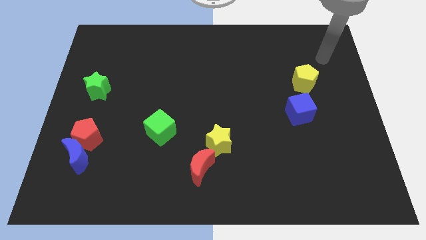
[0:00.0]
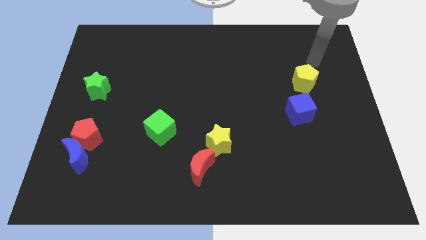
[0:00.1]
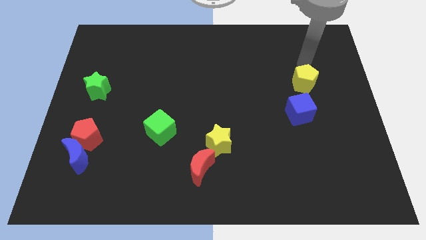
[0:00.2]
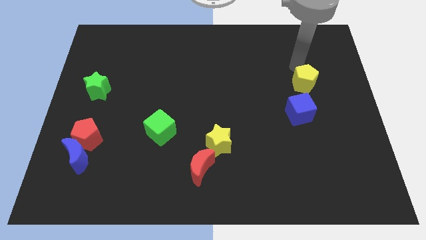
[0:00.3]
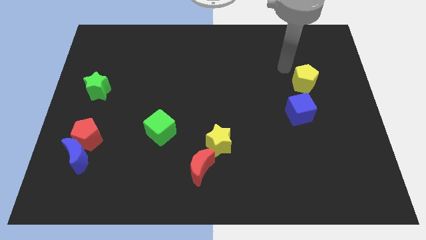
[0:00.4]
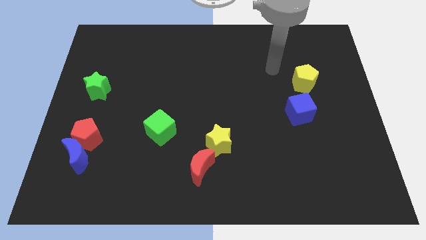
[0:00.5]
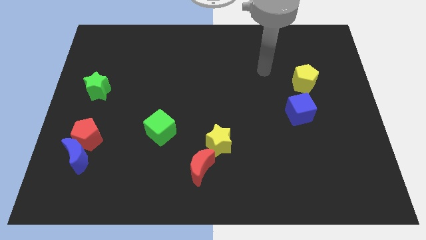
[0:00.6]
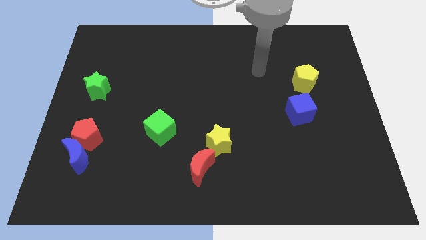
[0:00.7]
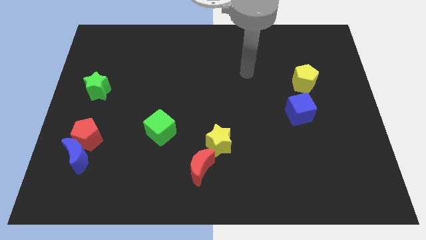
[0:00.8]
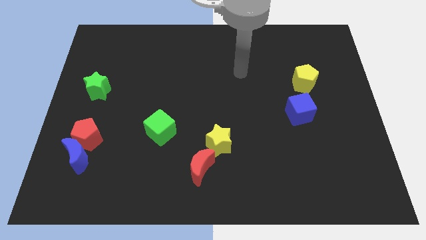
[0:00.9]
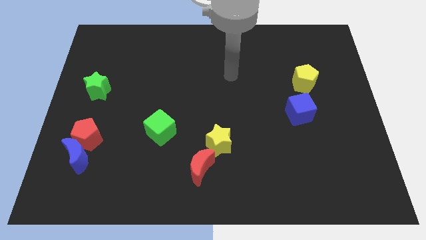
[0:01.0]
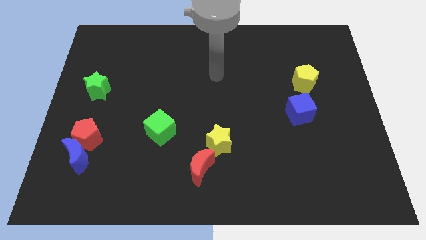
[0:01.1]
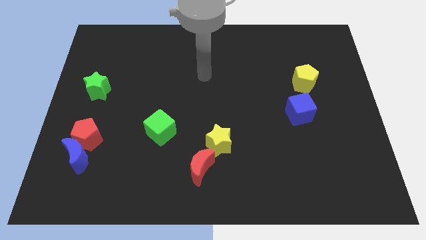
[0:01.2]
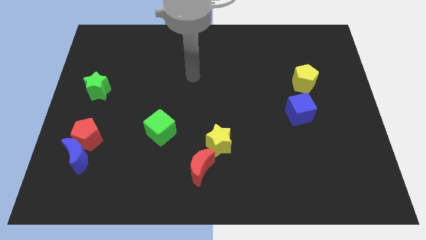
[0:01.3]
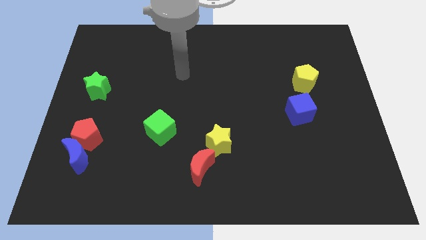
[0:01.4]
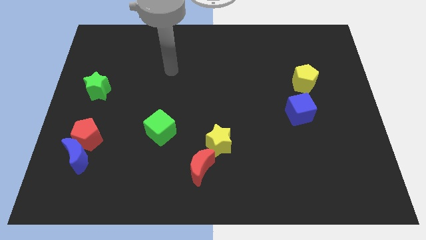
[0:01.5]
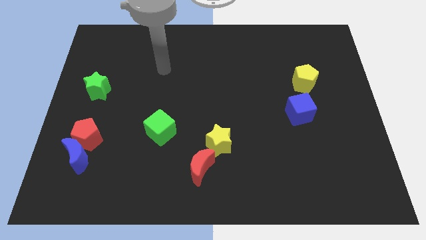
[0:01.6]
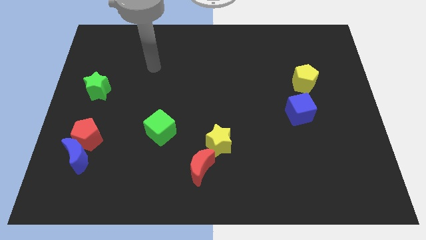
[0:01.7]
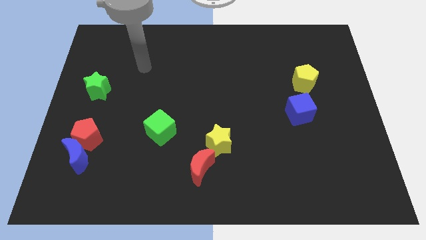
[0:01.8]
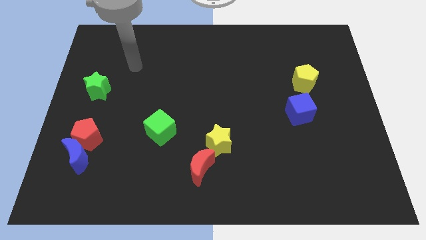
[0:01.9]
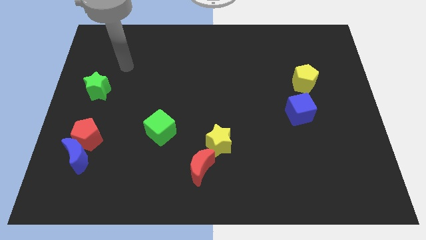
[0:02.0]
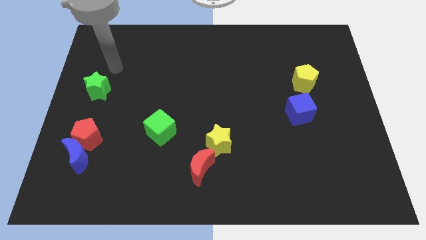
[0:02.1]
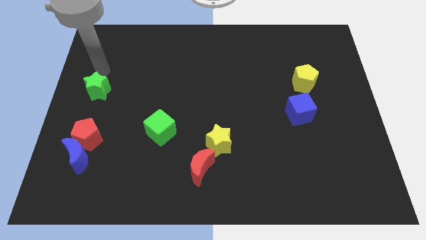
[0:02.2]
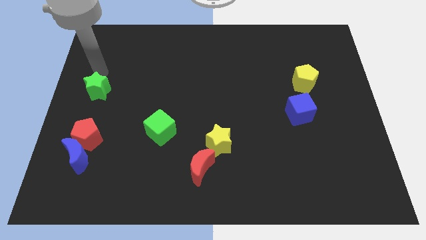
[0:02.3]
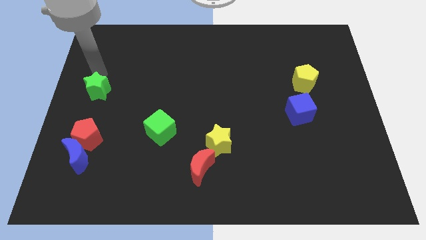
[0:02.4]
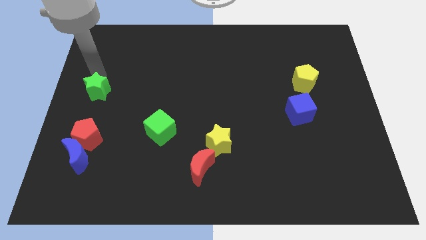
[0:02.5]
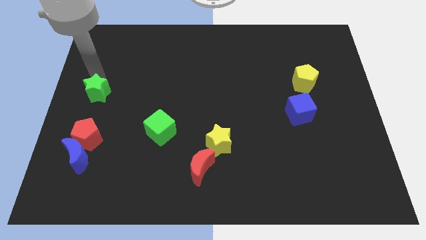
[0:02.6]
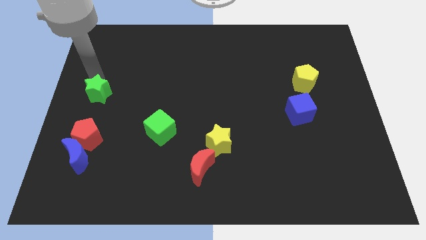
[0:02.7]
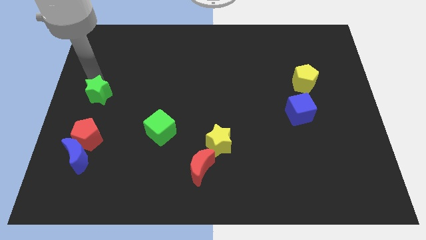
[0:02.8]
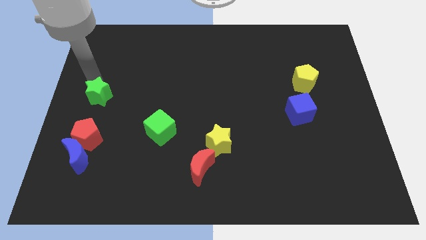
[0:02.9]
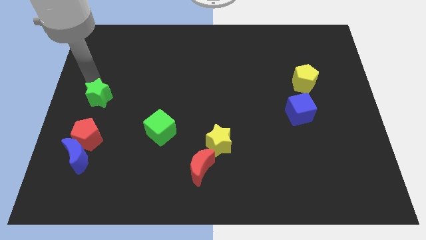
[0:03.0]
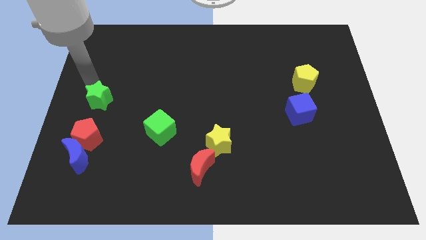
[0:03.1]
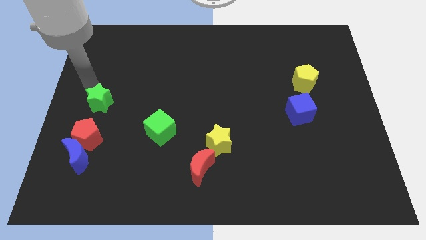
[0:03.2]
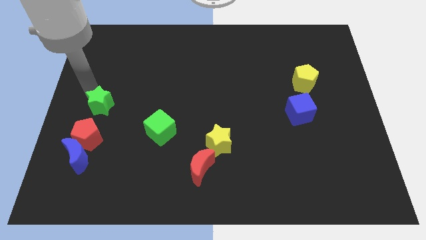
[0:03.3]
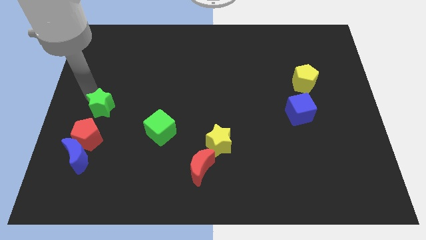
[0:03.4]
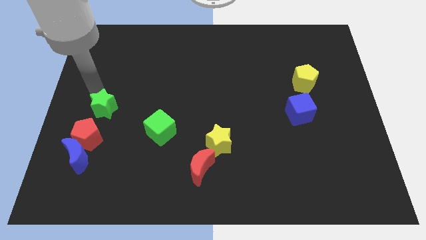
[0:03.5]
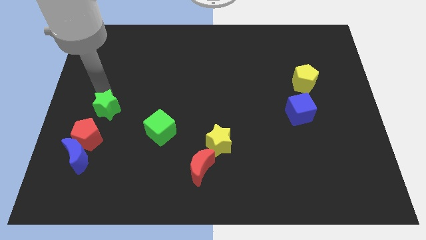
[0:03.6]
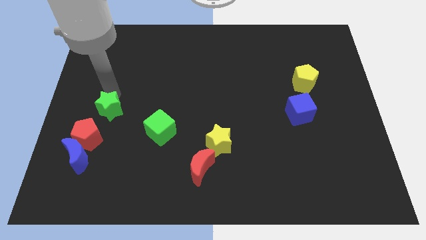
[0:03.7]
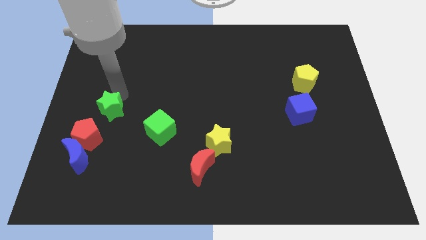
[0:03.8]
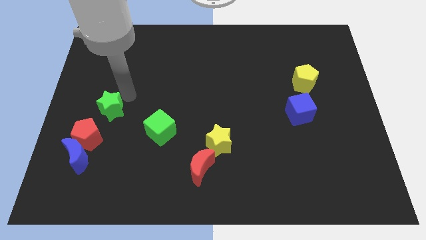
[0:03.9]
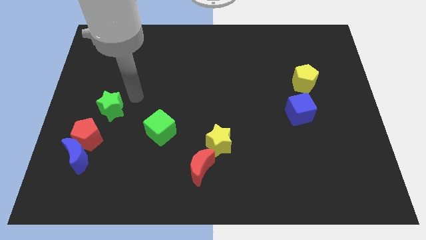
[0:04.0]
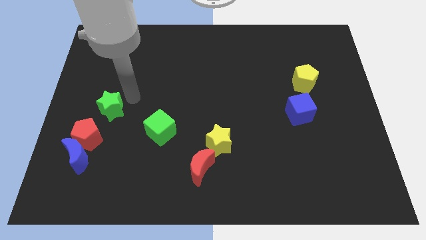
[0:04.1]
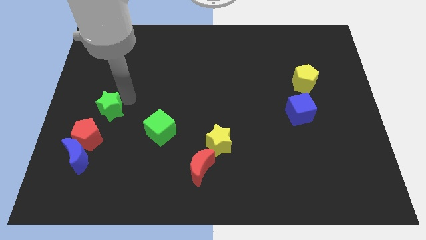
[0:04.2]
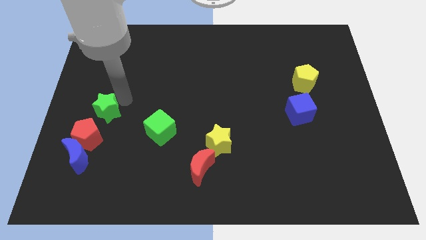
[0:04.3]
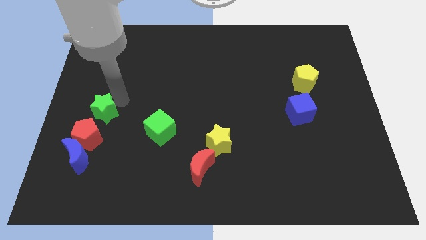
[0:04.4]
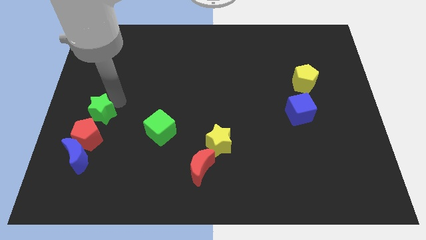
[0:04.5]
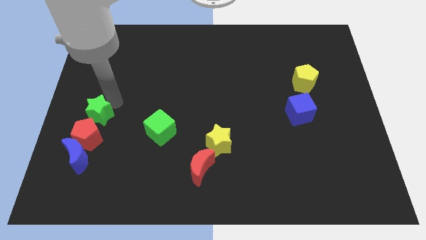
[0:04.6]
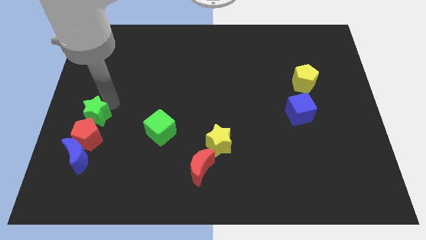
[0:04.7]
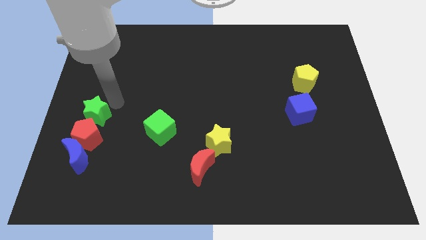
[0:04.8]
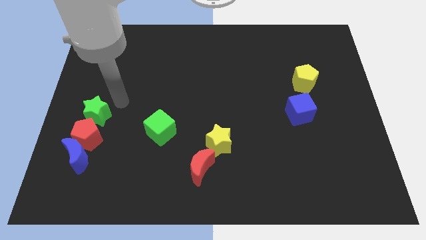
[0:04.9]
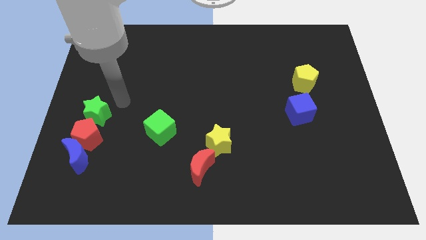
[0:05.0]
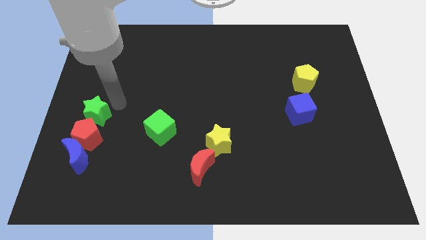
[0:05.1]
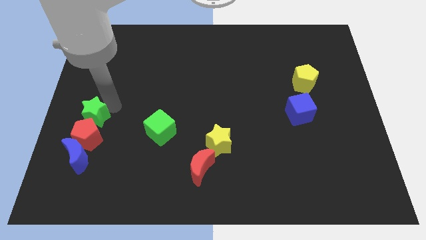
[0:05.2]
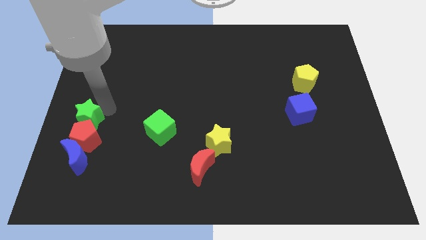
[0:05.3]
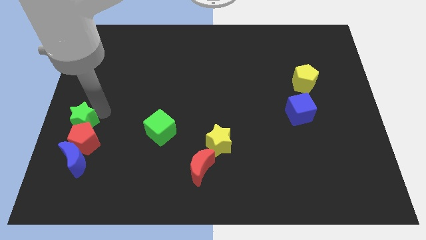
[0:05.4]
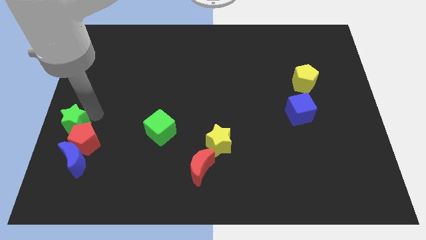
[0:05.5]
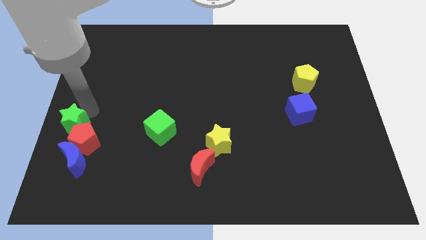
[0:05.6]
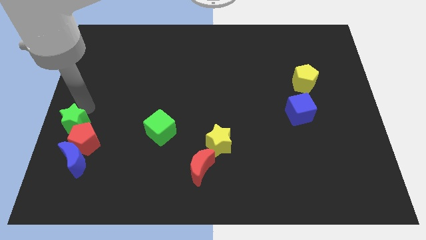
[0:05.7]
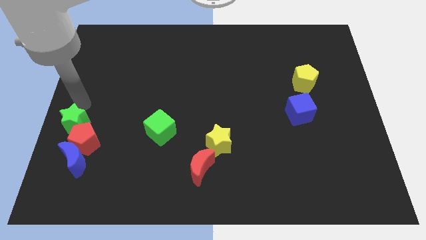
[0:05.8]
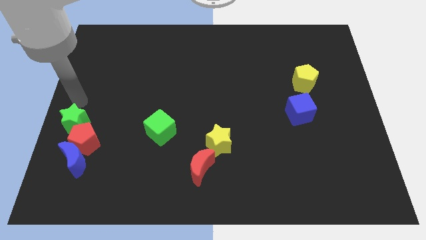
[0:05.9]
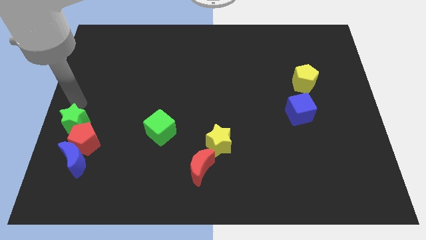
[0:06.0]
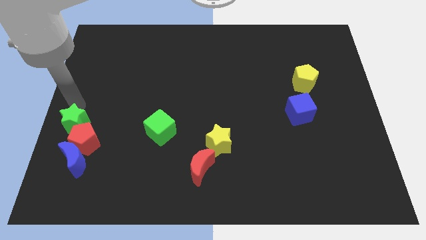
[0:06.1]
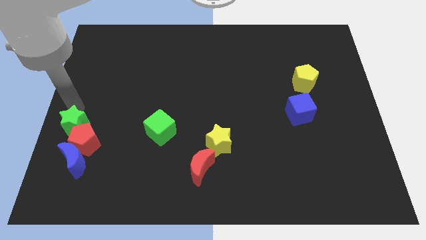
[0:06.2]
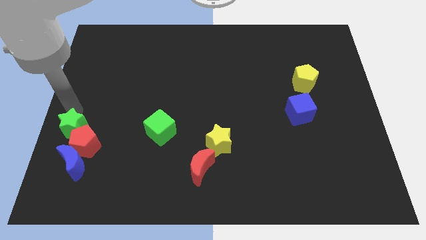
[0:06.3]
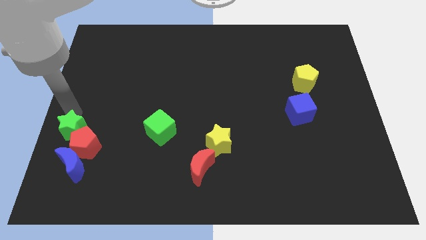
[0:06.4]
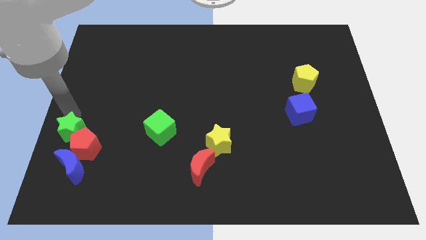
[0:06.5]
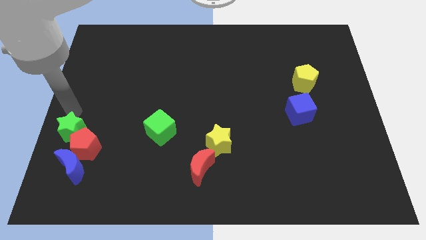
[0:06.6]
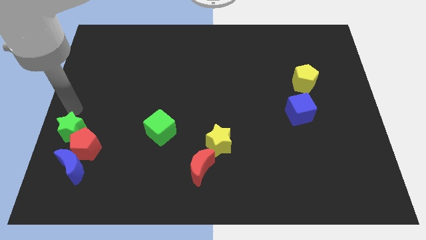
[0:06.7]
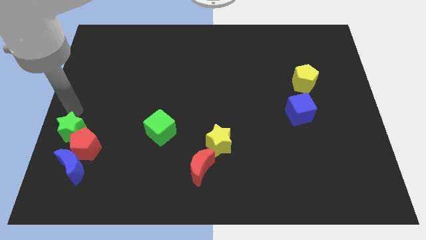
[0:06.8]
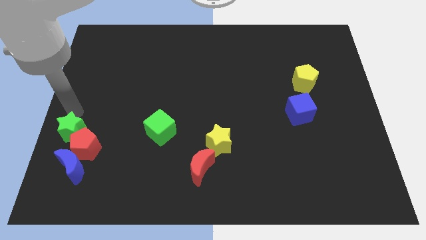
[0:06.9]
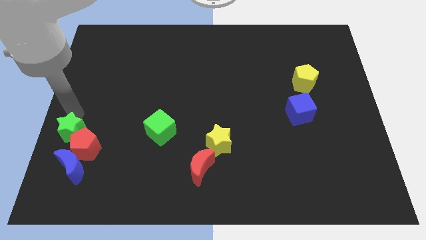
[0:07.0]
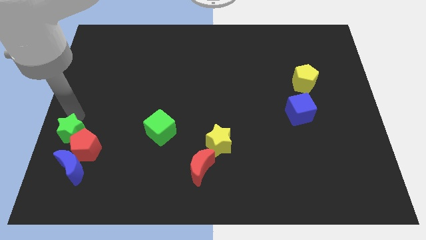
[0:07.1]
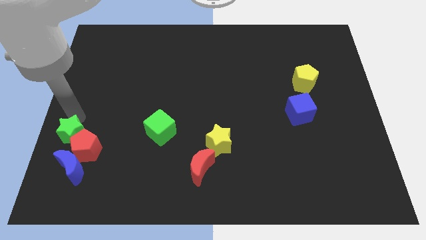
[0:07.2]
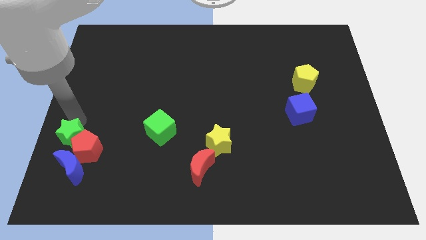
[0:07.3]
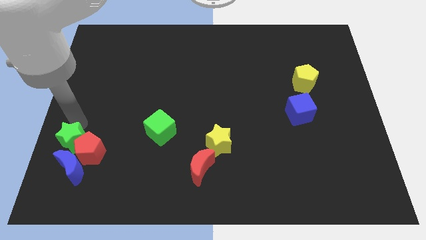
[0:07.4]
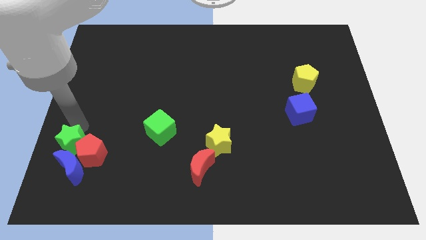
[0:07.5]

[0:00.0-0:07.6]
put the green star next to the blue moon
